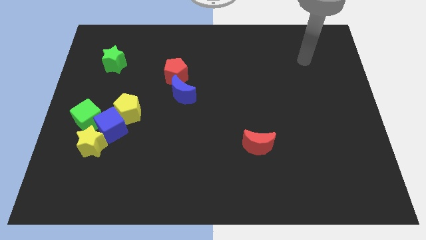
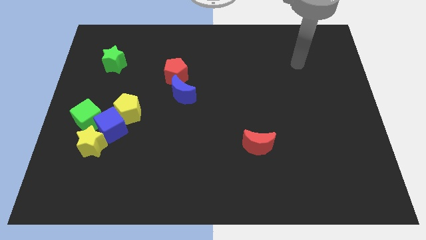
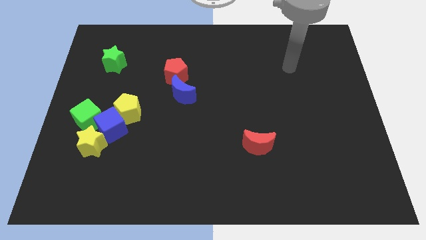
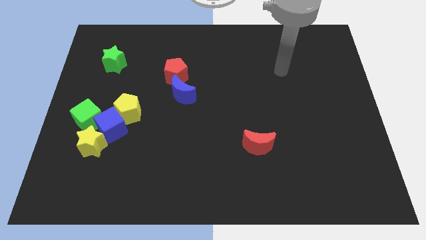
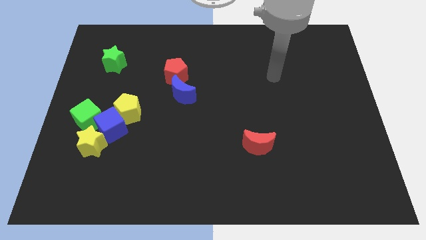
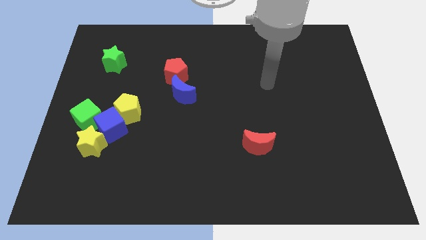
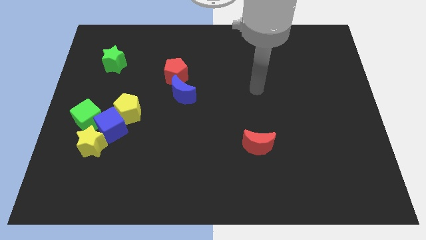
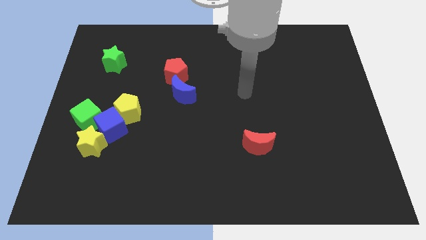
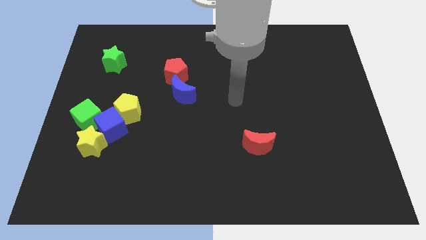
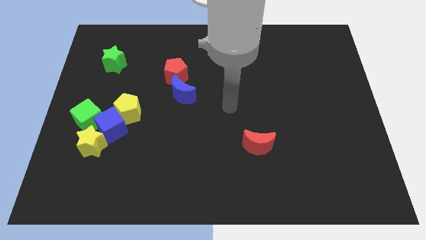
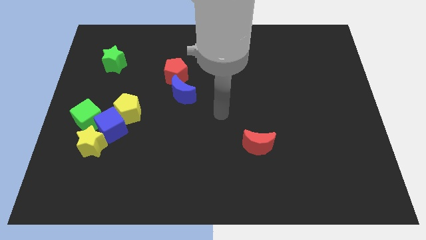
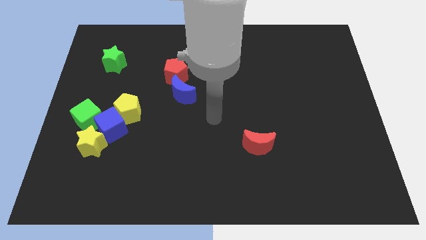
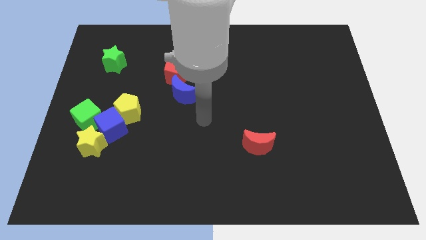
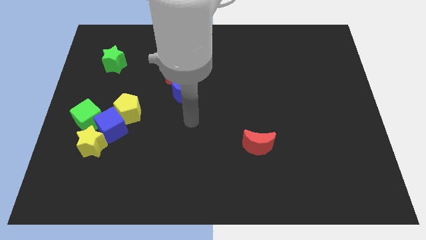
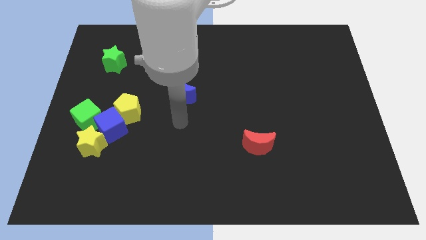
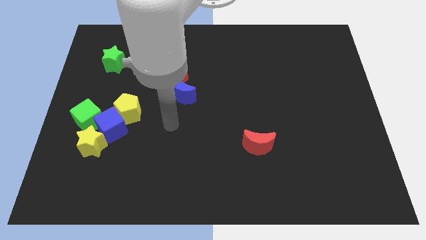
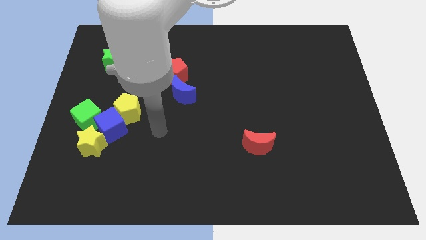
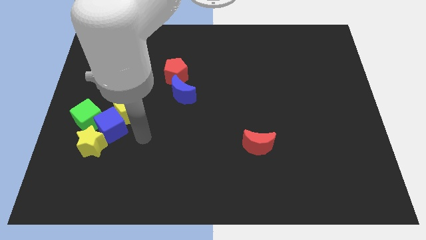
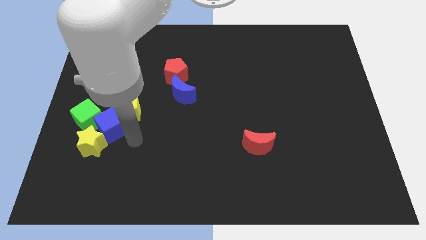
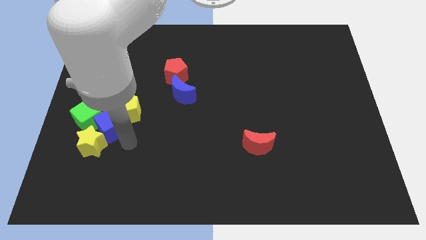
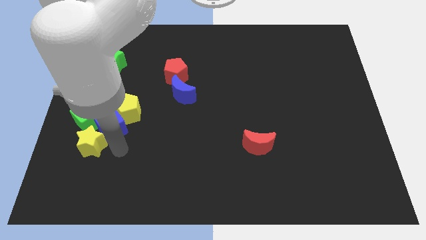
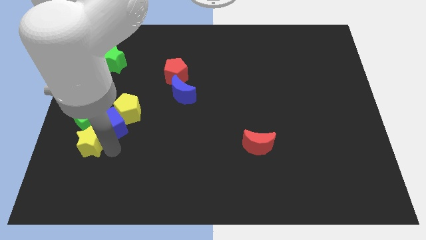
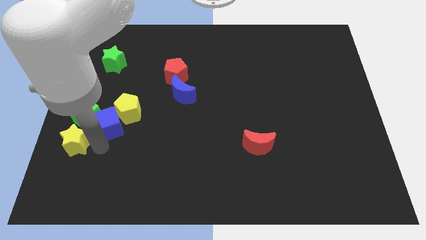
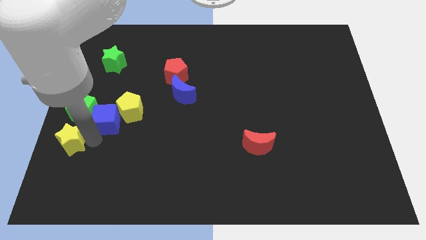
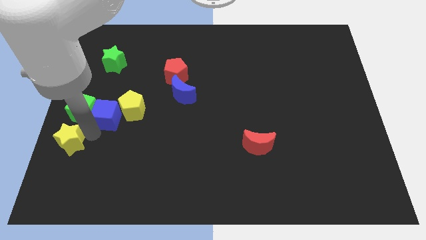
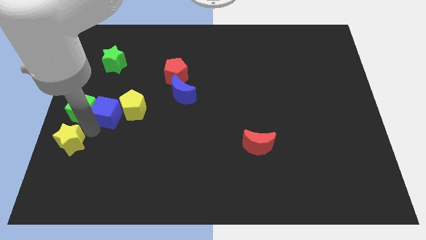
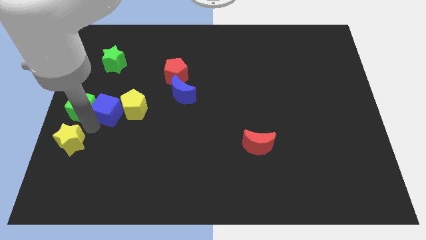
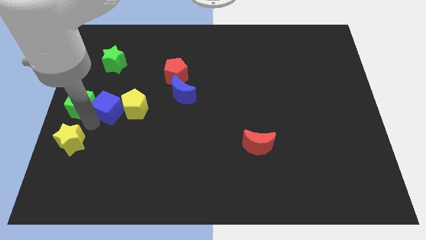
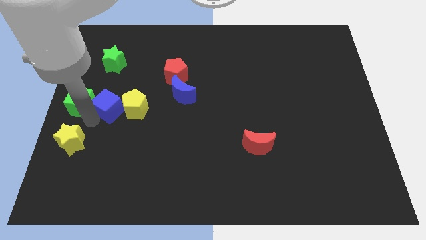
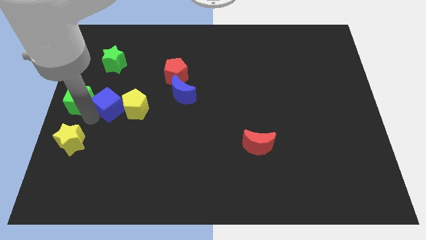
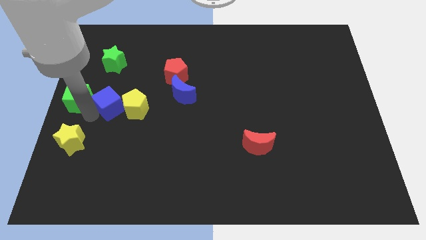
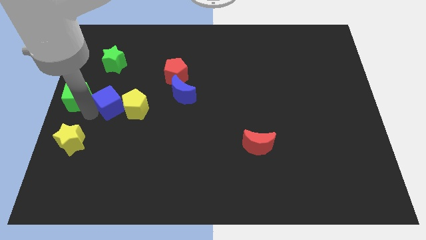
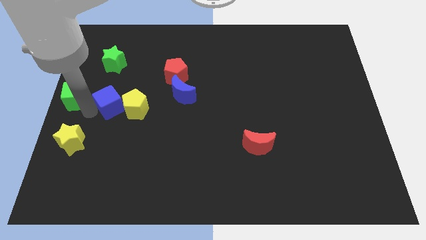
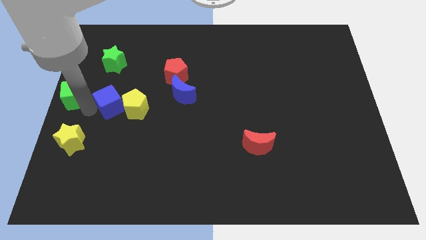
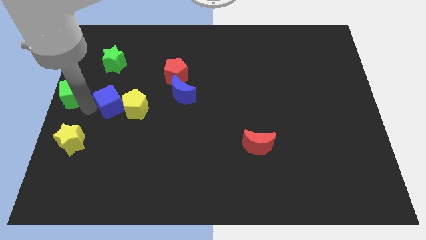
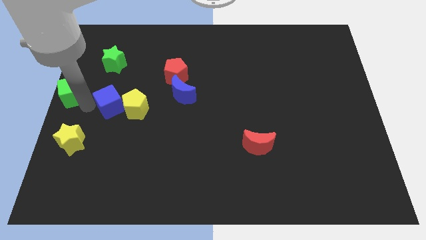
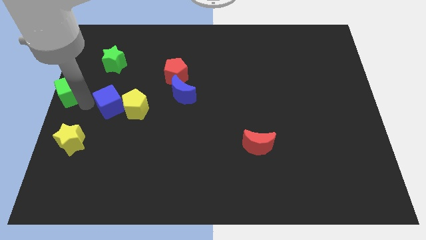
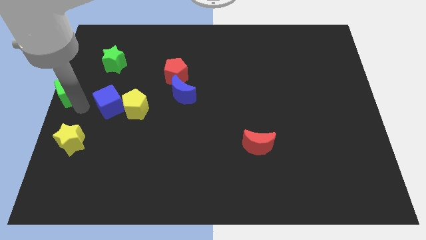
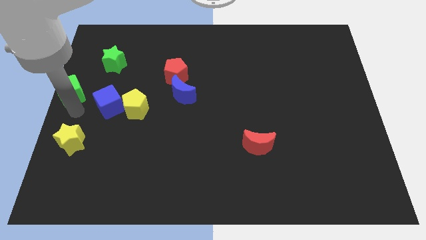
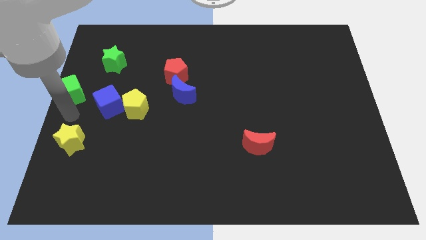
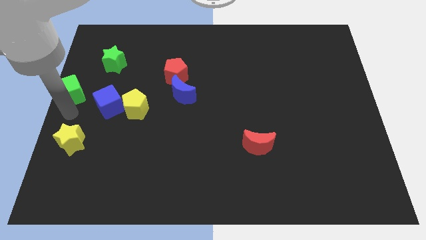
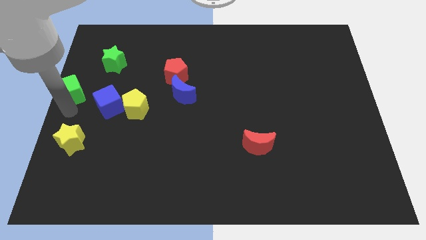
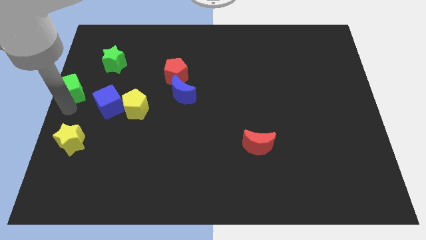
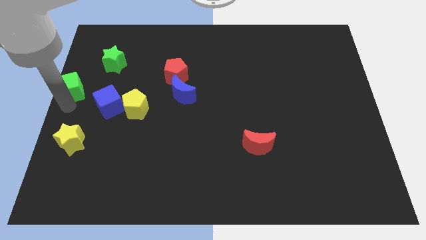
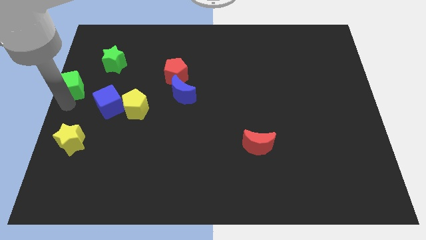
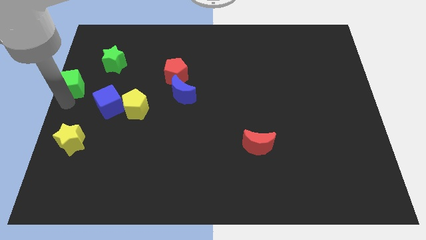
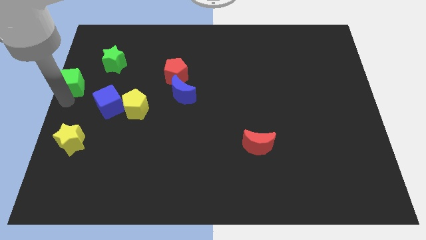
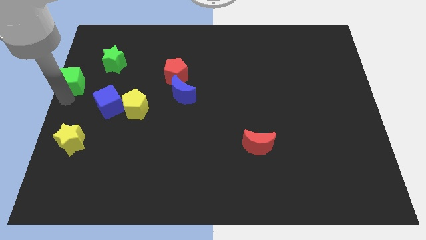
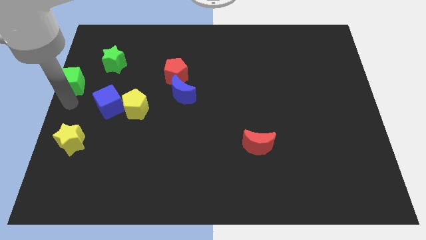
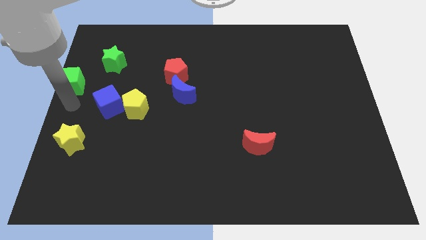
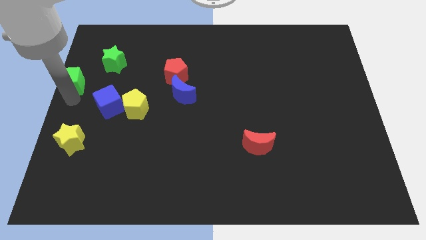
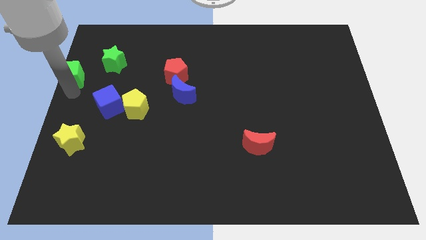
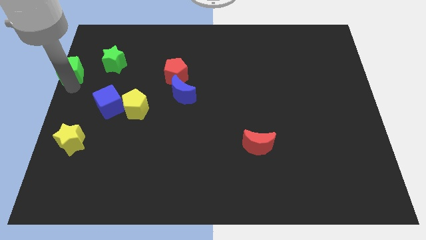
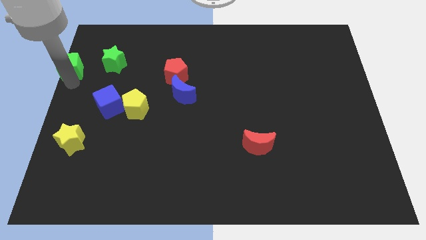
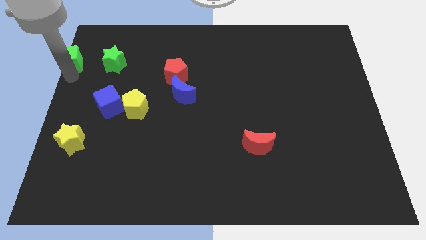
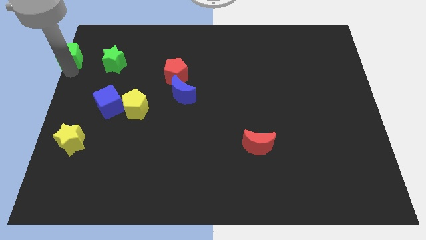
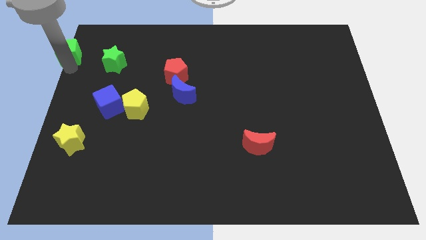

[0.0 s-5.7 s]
slide the green cube to the top left

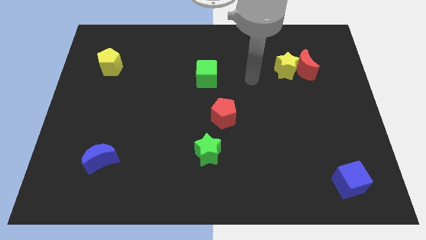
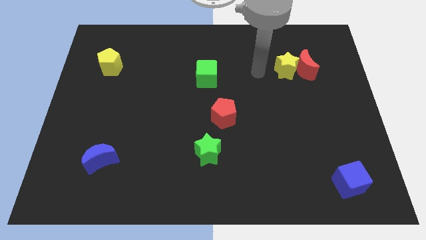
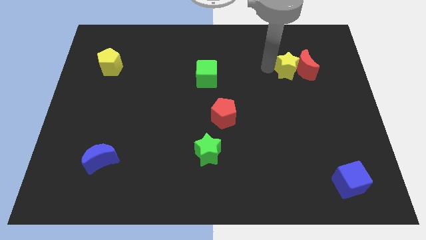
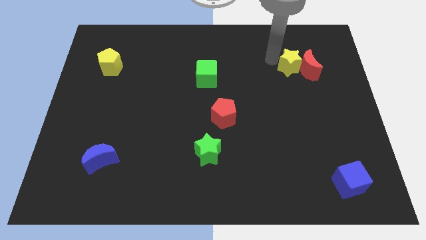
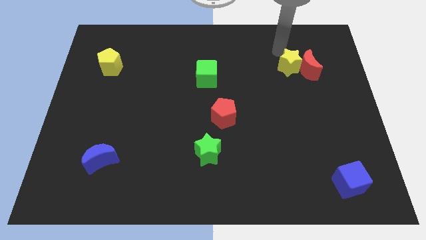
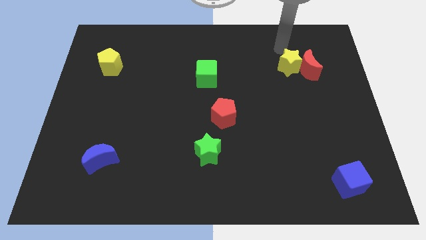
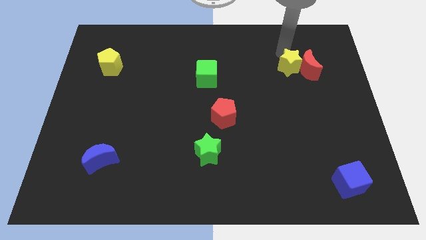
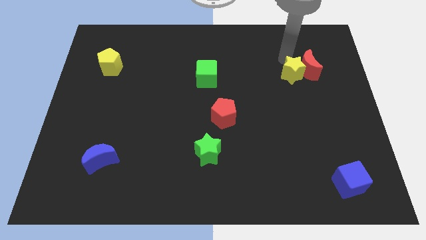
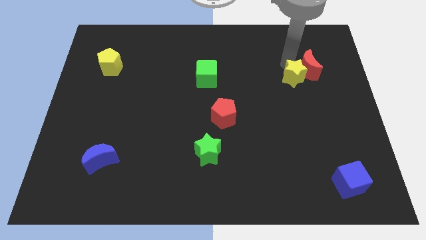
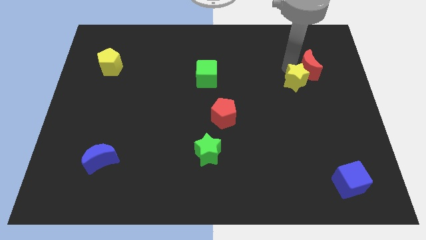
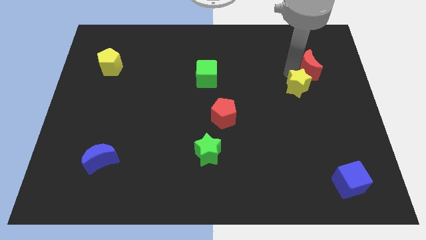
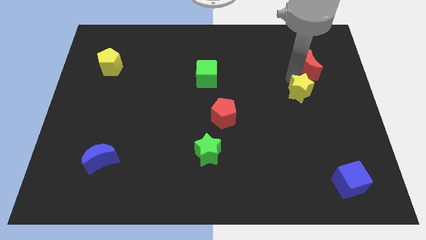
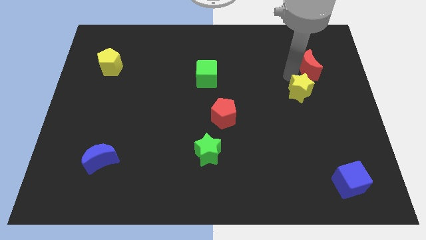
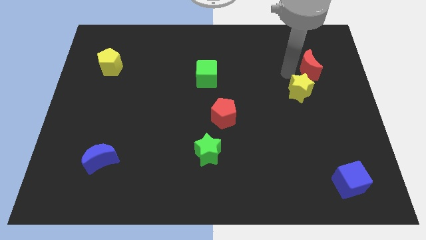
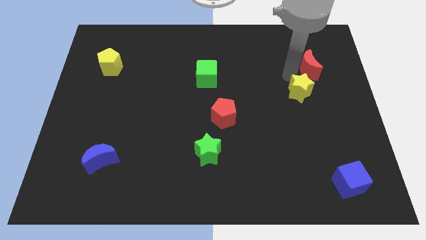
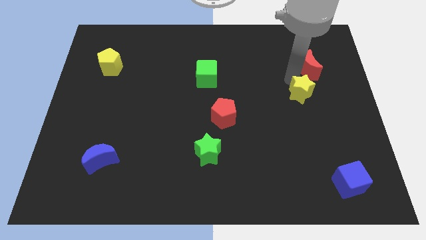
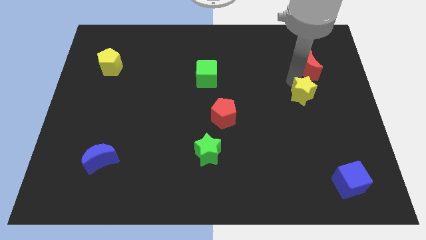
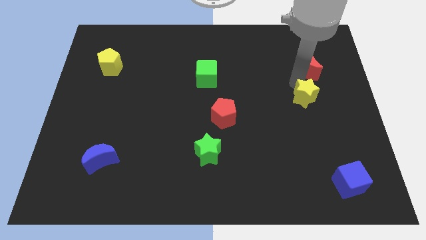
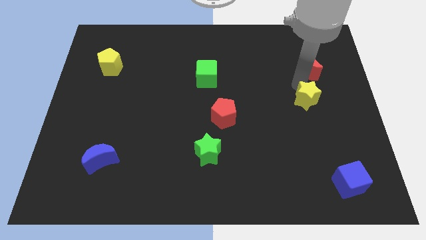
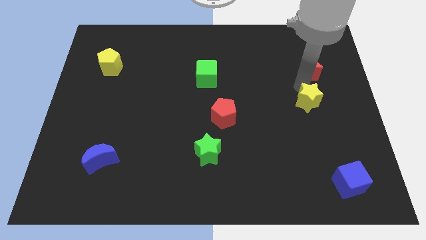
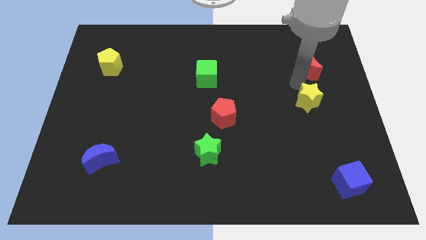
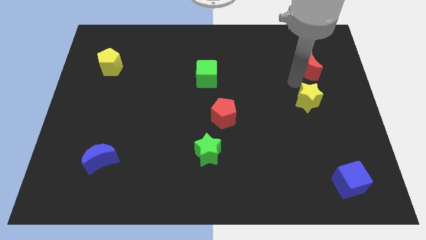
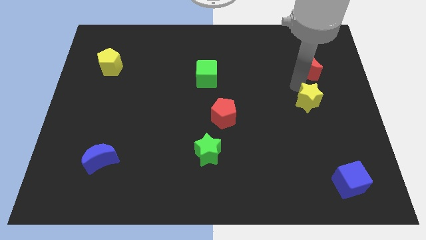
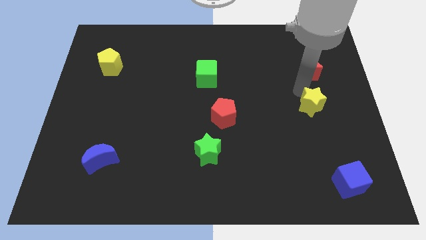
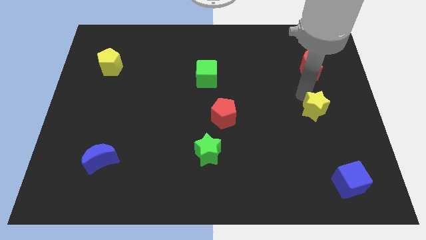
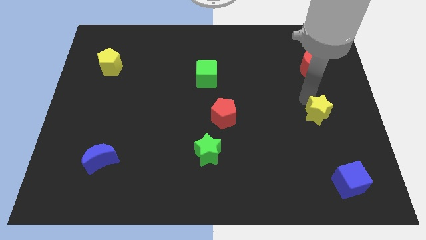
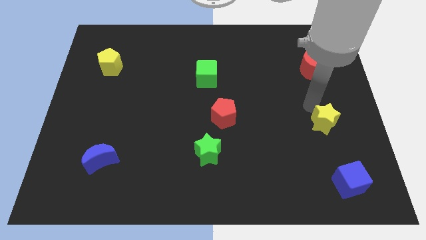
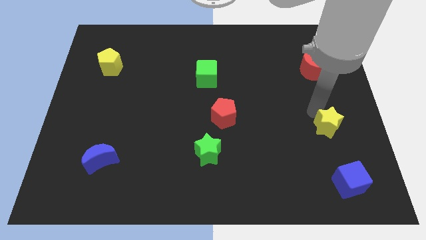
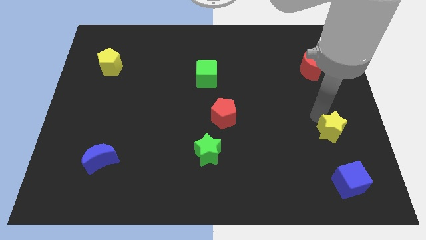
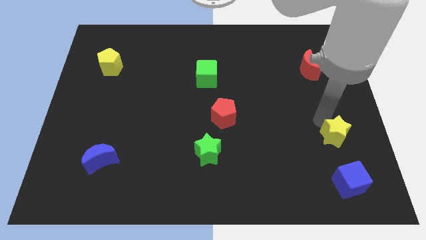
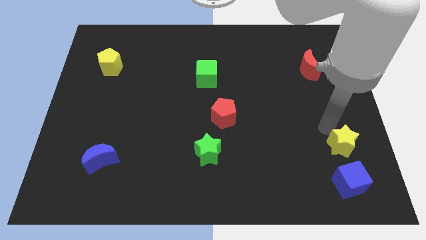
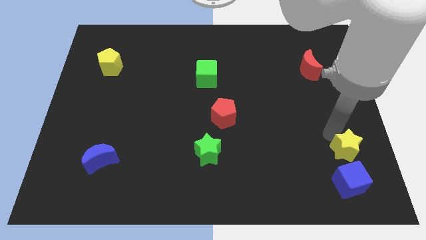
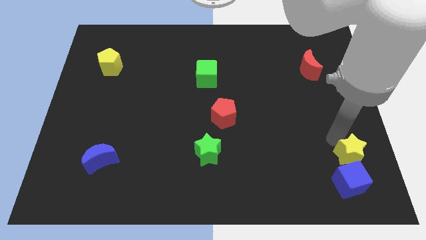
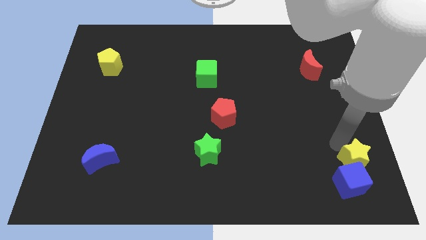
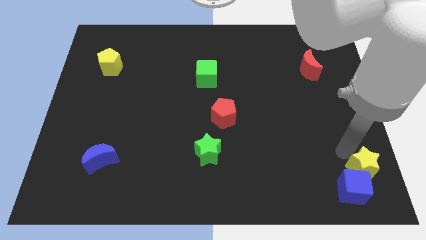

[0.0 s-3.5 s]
put the yellow star to the lower right corner
